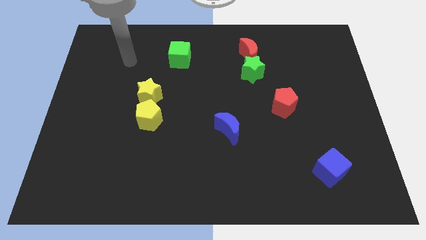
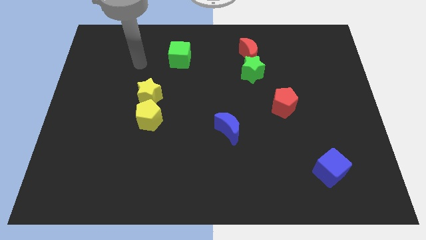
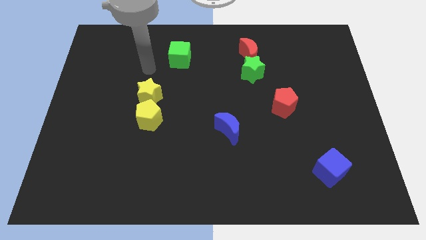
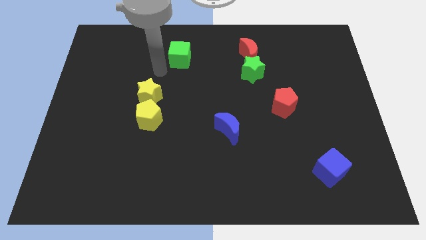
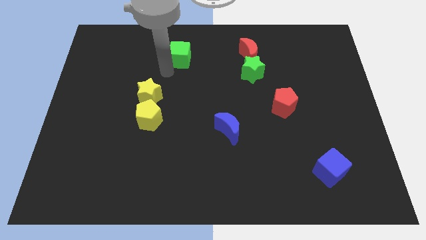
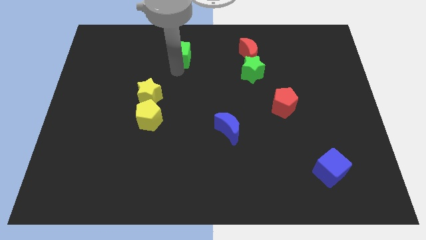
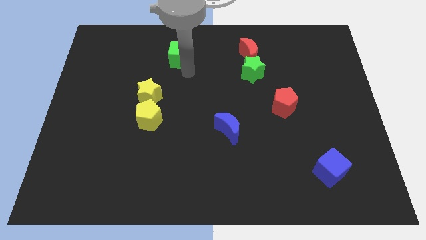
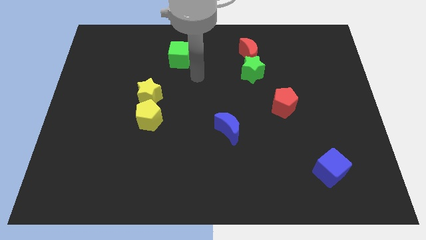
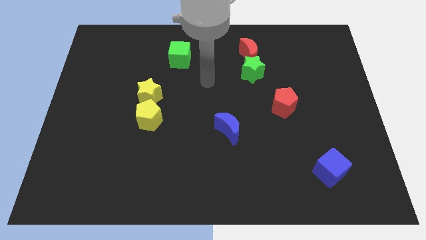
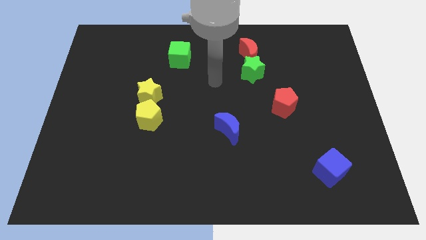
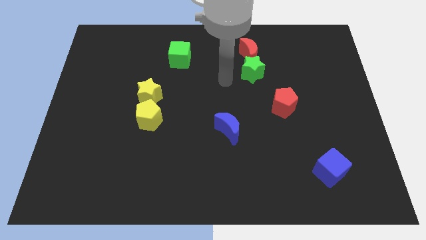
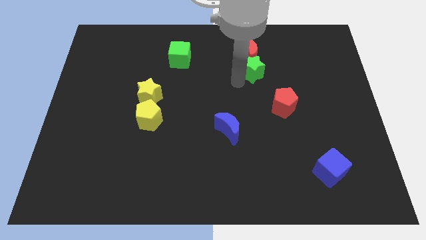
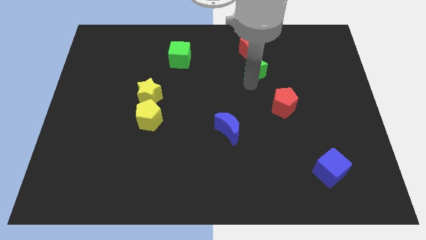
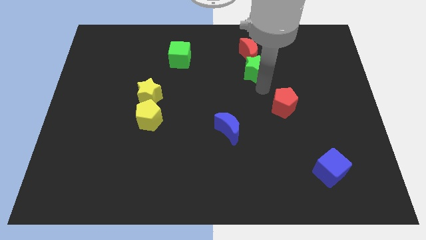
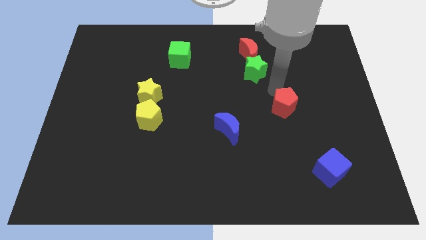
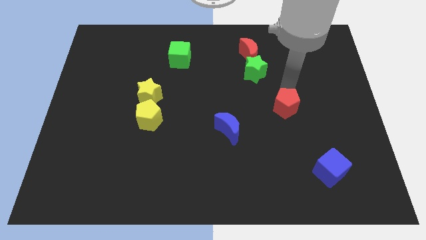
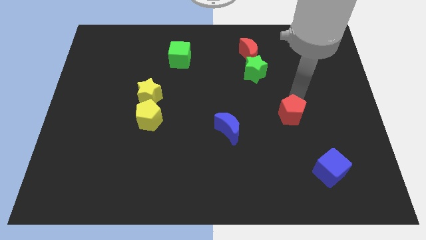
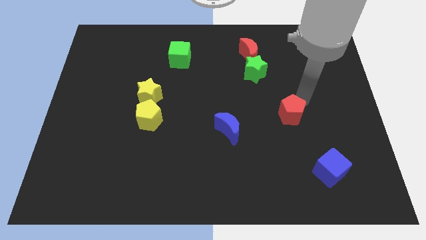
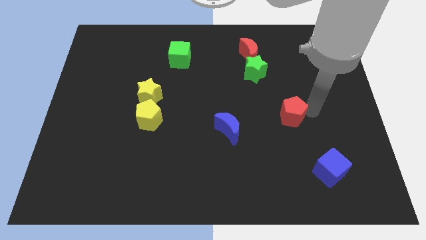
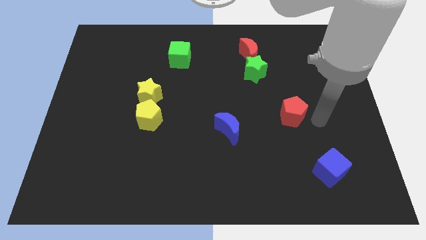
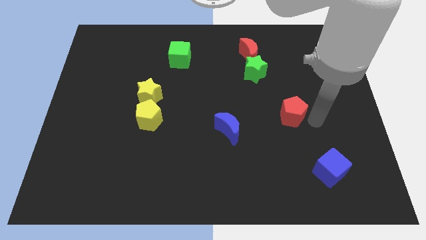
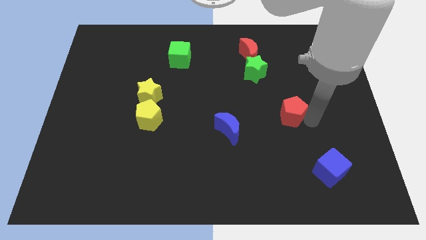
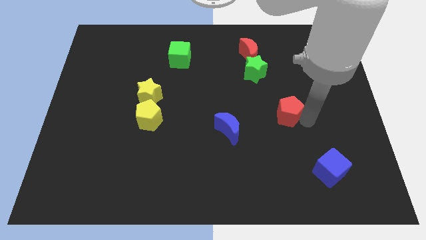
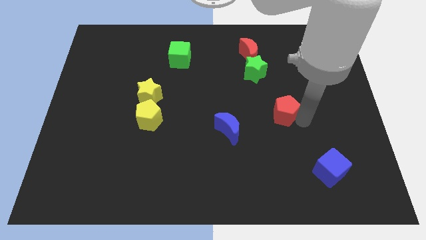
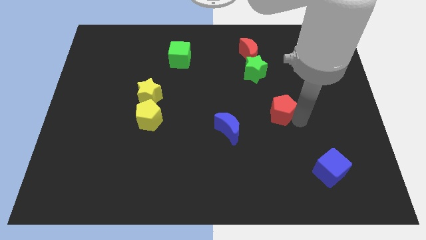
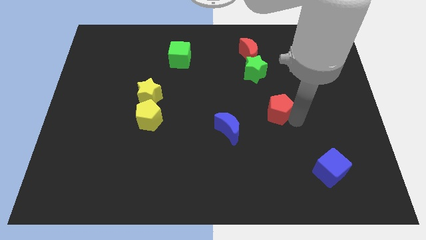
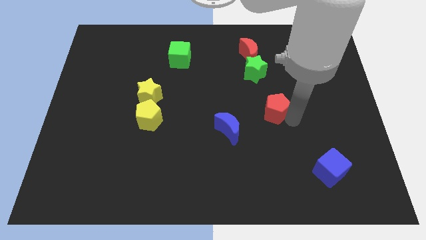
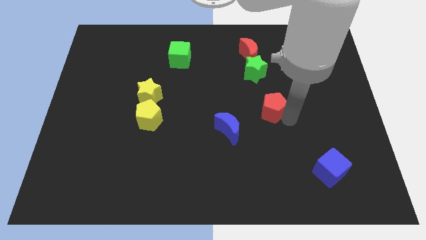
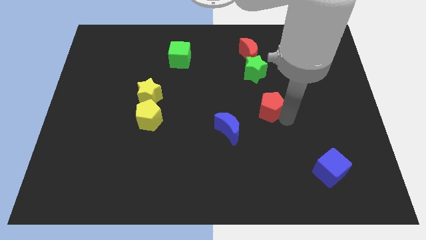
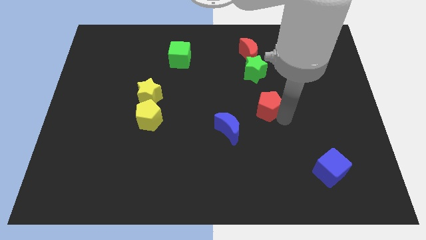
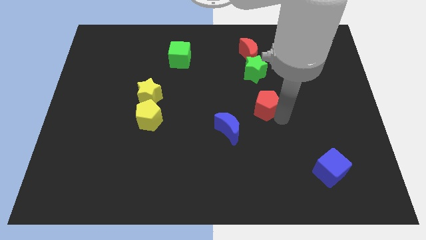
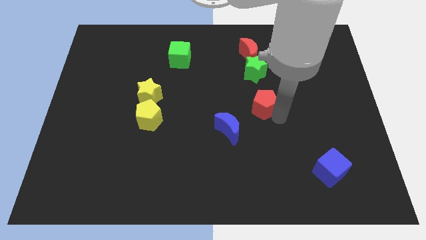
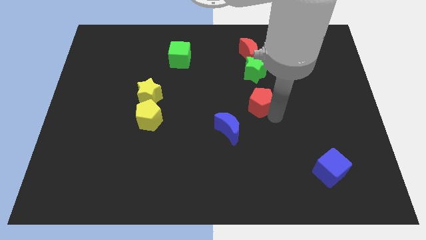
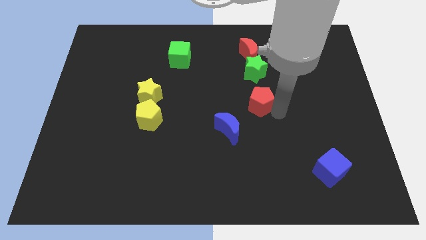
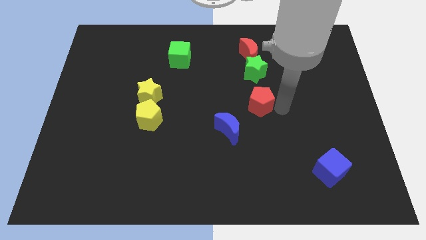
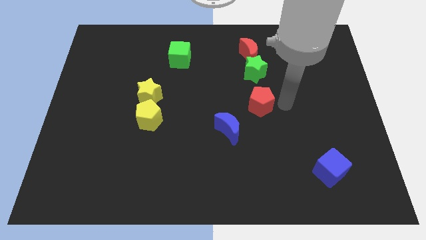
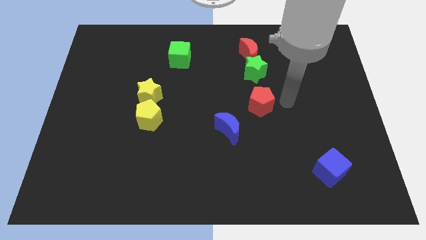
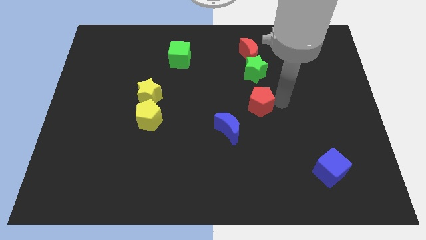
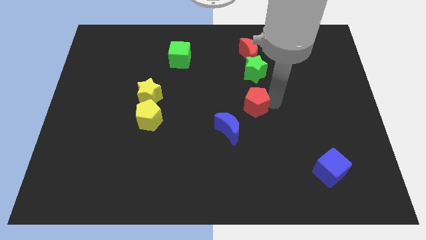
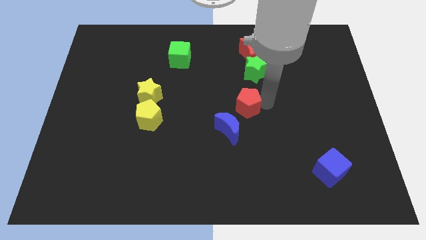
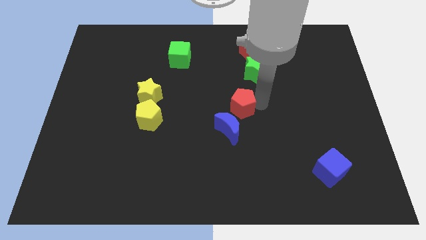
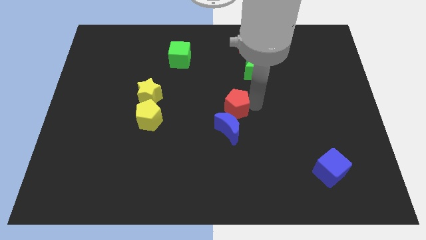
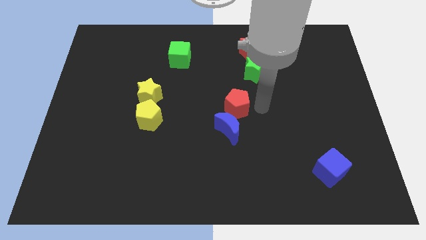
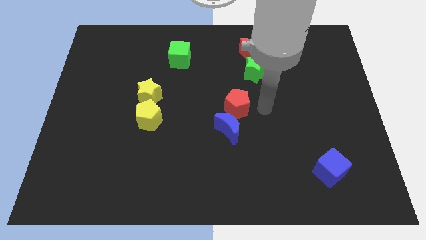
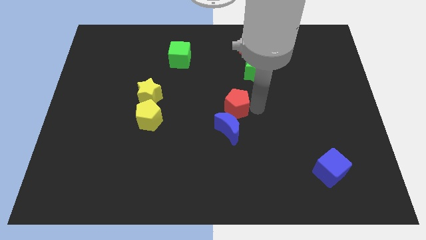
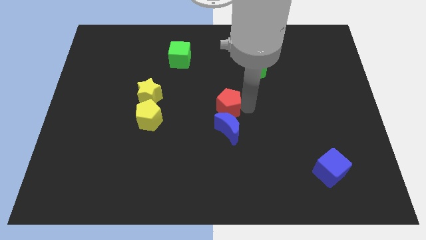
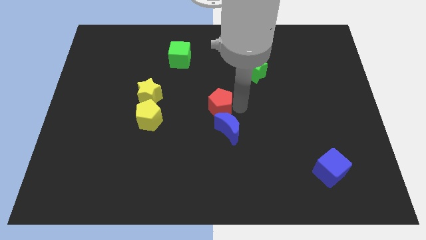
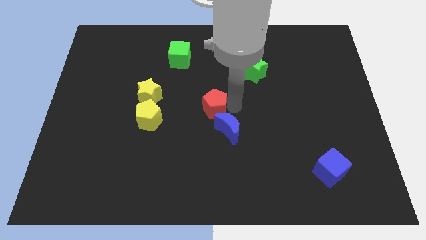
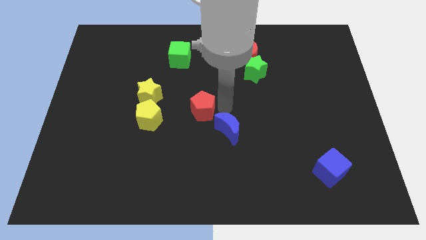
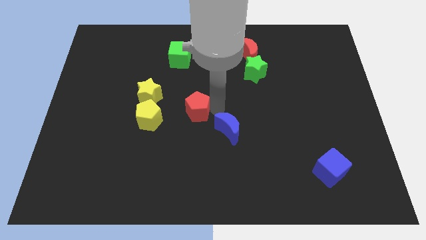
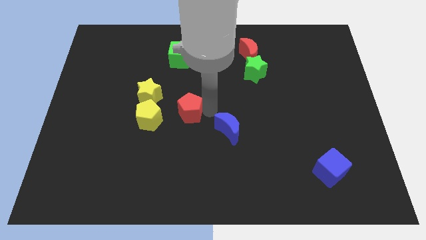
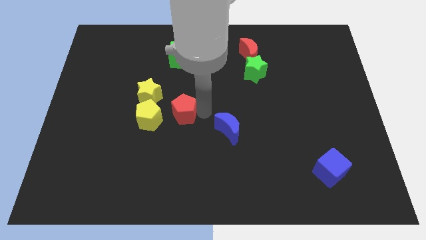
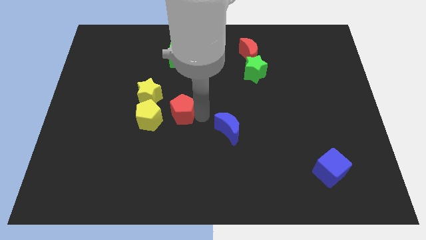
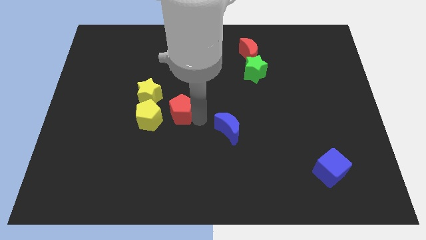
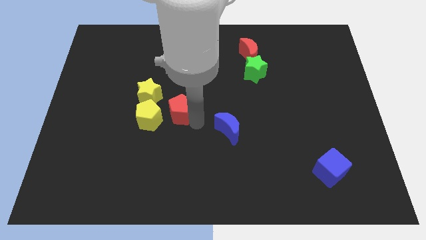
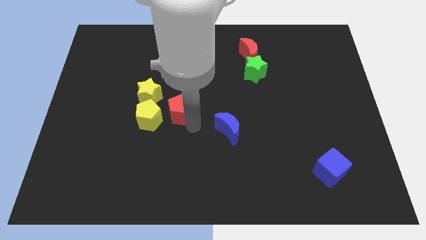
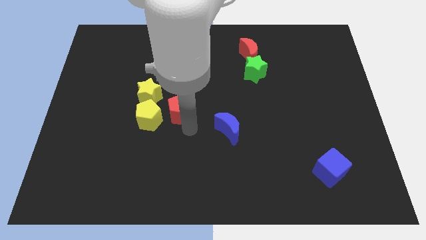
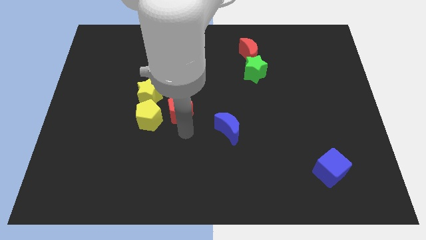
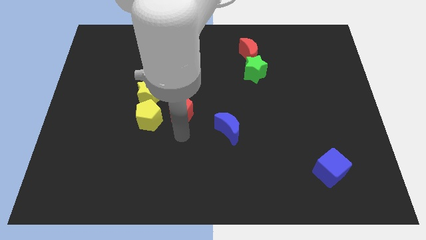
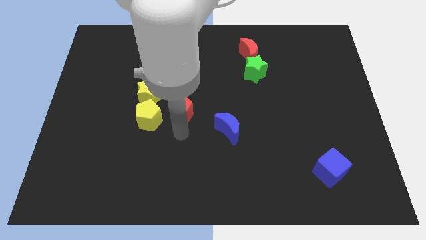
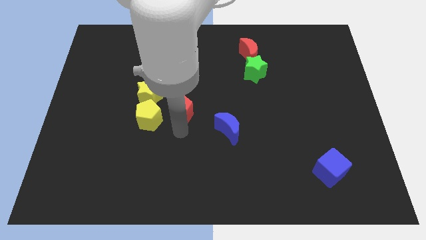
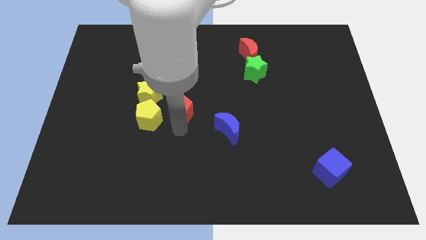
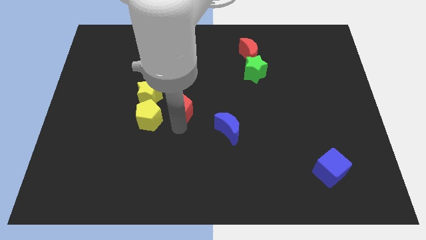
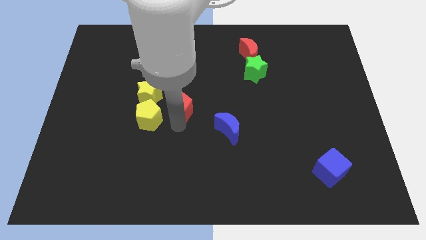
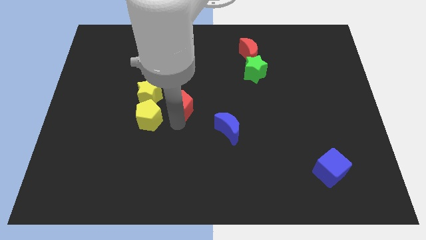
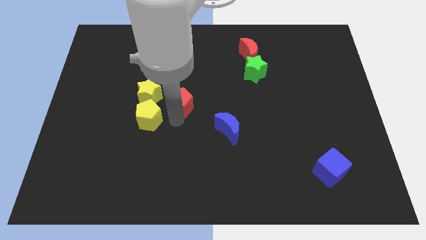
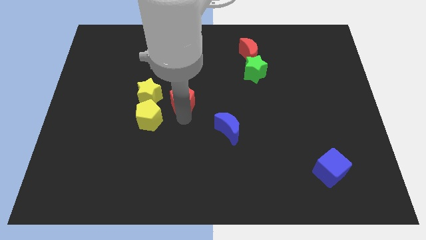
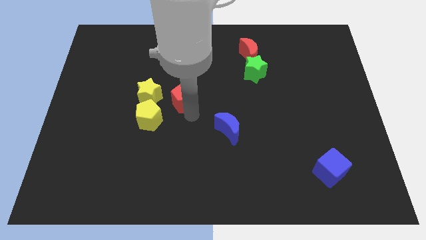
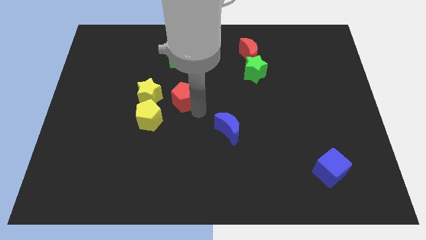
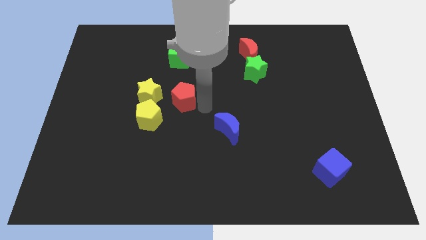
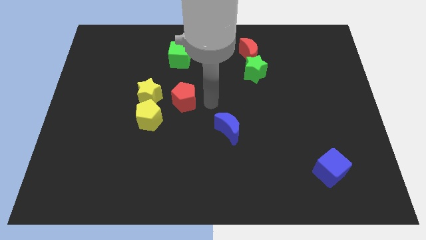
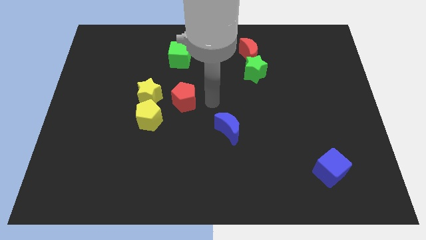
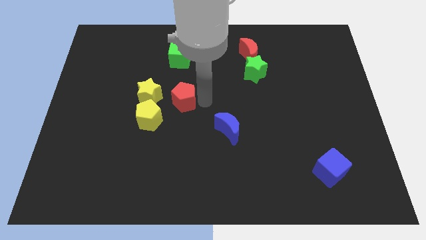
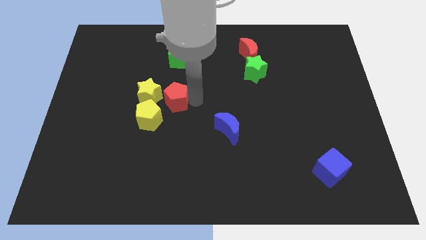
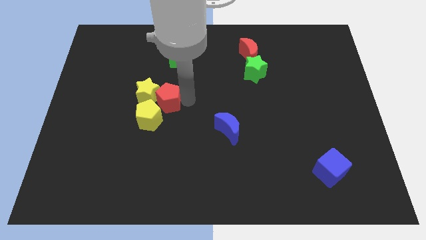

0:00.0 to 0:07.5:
slide the red pentagon next to the yellow star

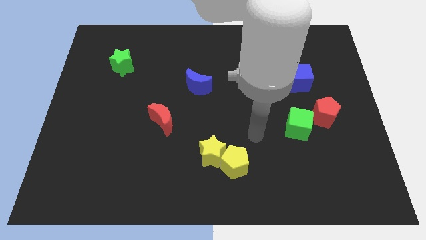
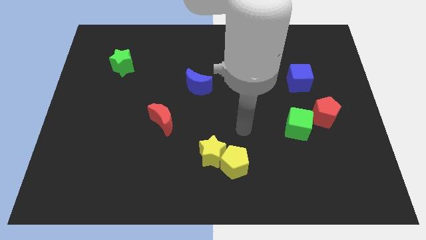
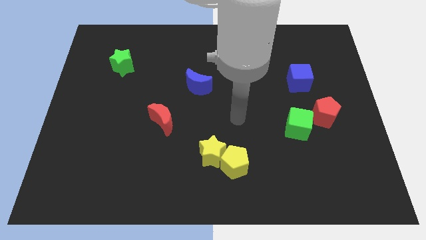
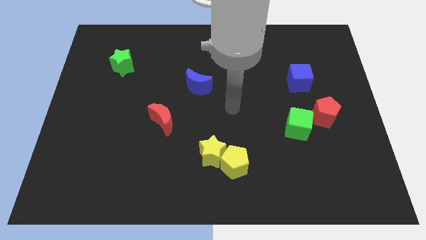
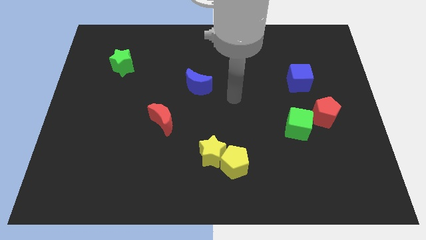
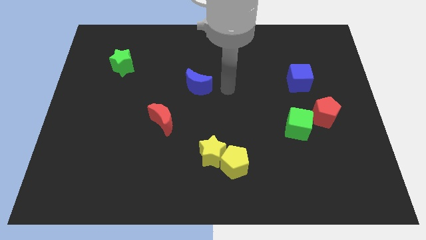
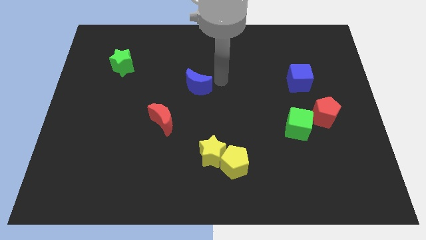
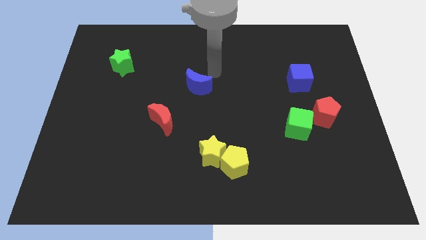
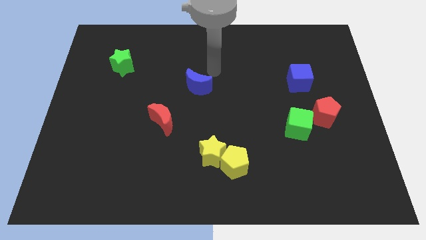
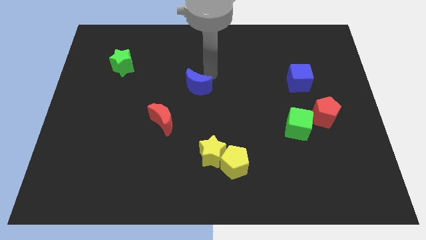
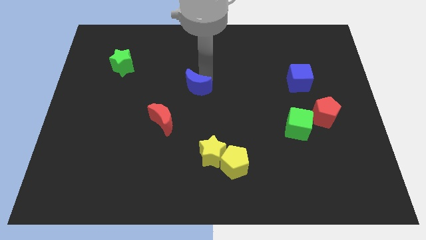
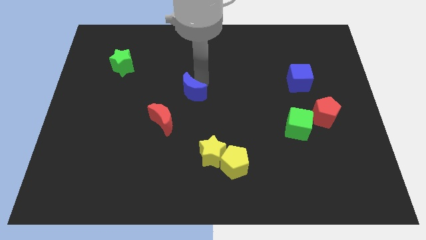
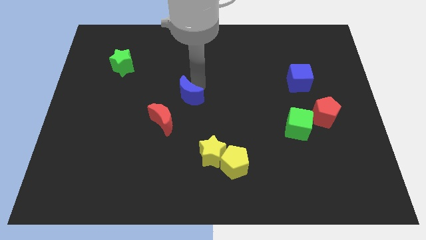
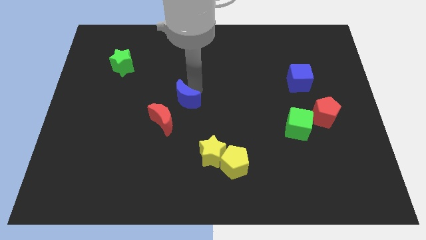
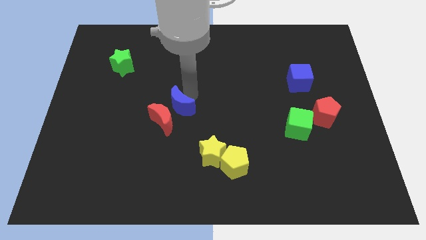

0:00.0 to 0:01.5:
slide the blue moon to the red moon
